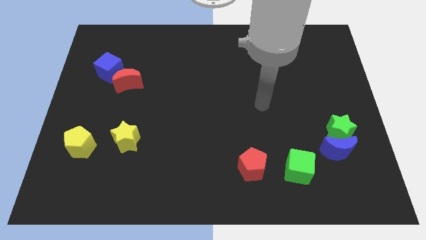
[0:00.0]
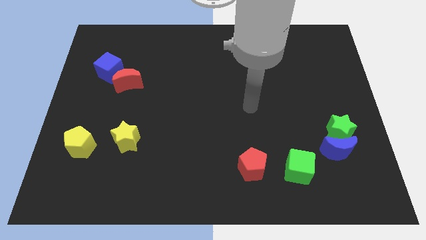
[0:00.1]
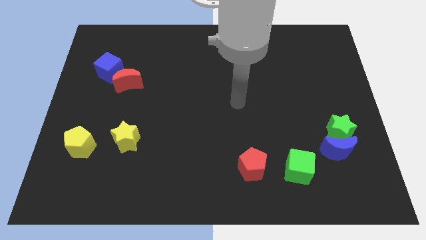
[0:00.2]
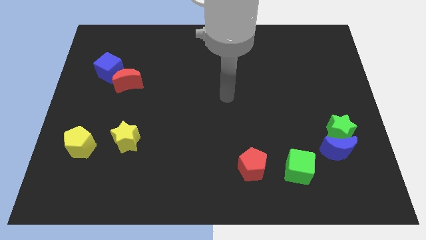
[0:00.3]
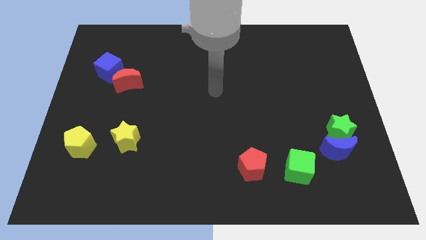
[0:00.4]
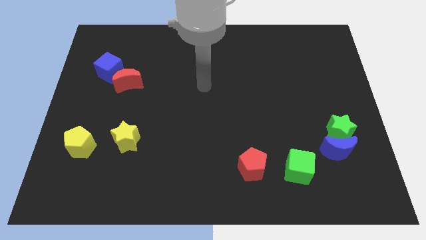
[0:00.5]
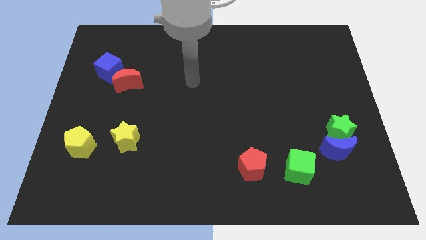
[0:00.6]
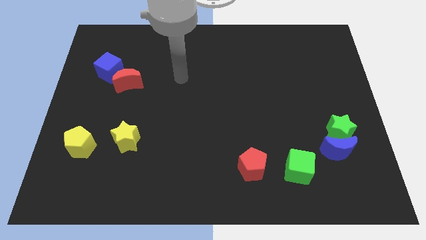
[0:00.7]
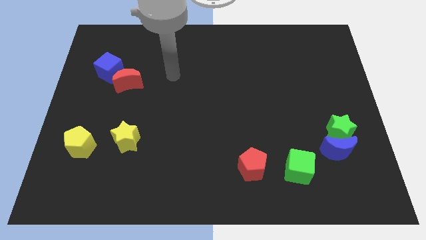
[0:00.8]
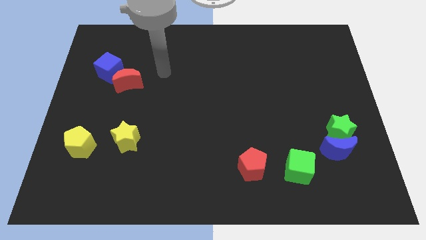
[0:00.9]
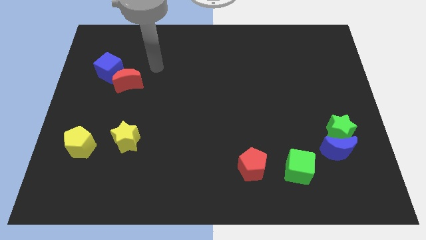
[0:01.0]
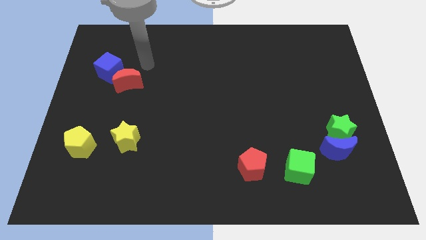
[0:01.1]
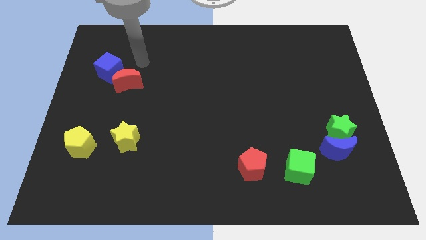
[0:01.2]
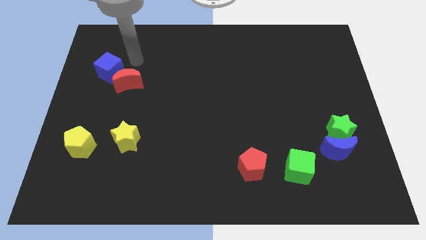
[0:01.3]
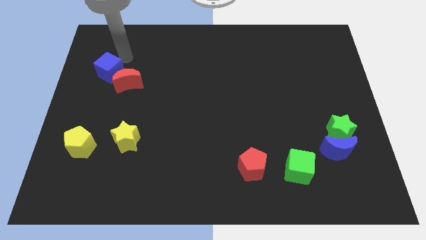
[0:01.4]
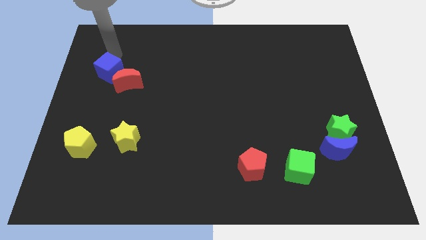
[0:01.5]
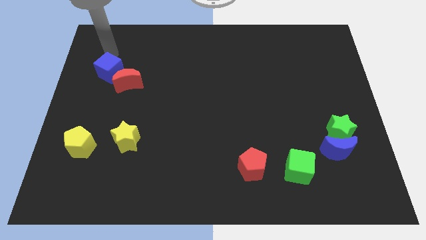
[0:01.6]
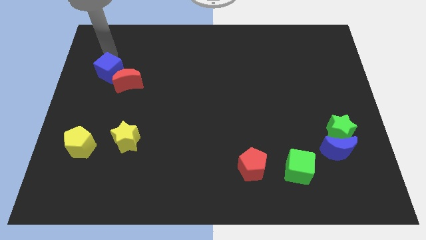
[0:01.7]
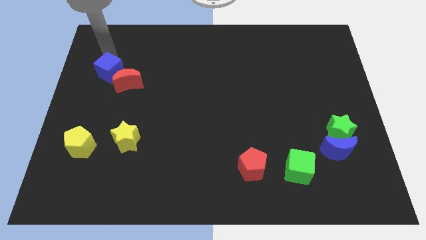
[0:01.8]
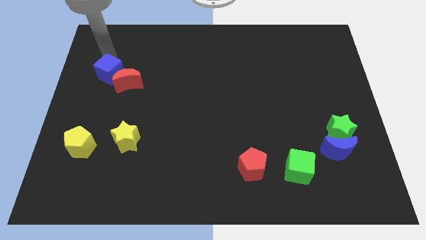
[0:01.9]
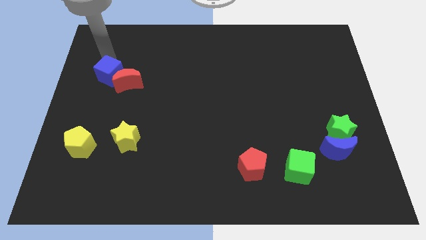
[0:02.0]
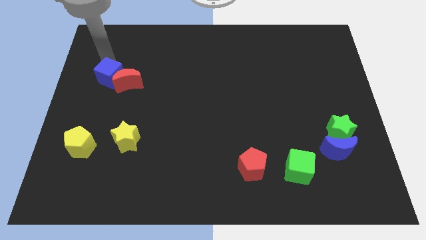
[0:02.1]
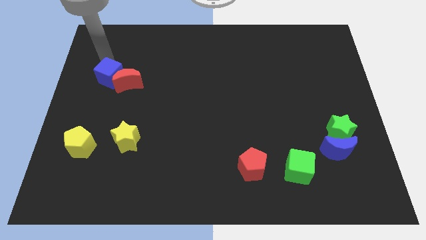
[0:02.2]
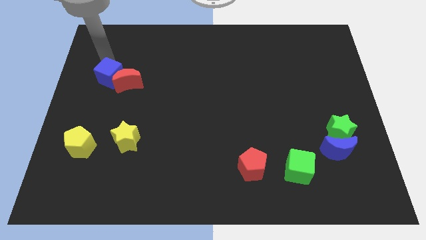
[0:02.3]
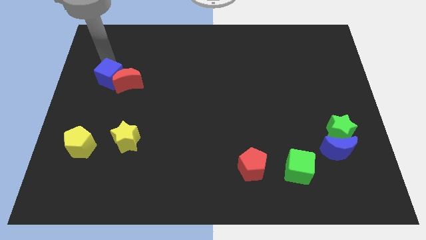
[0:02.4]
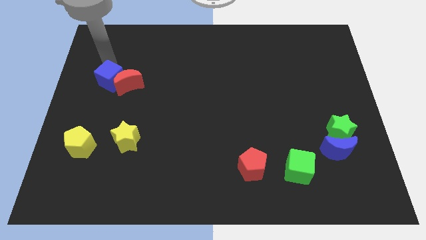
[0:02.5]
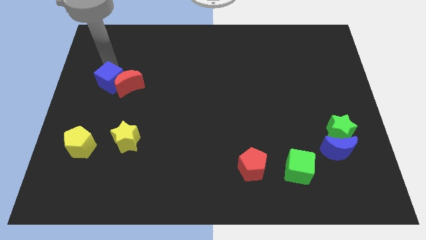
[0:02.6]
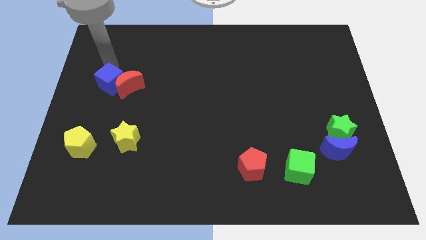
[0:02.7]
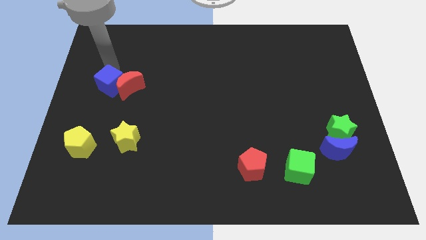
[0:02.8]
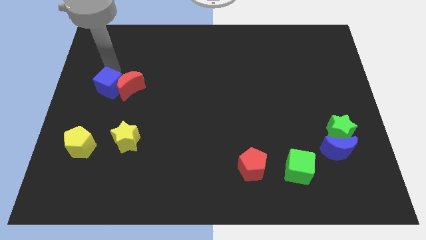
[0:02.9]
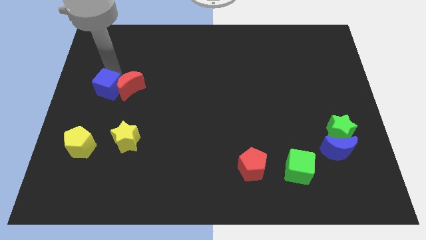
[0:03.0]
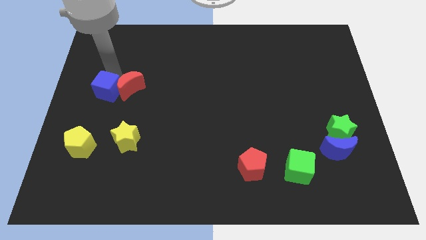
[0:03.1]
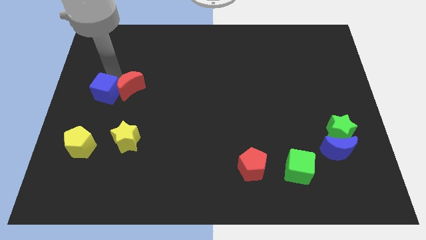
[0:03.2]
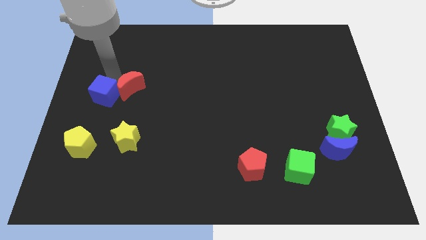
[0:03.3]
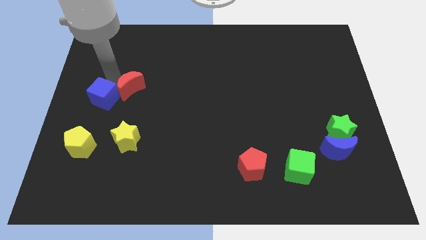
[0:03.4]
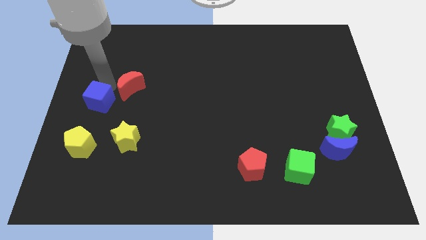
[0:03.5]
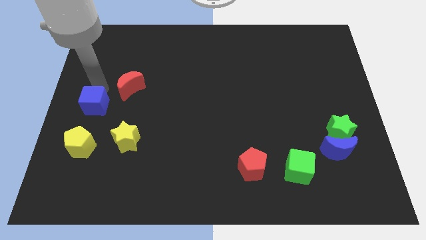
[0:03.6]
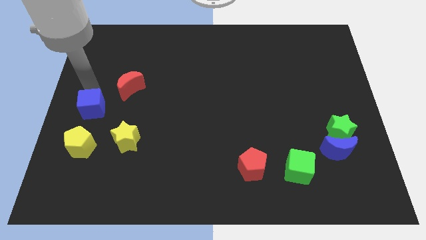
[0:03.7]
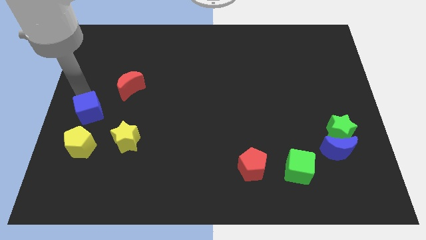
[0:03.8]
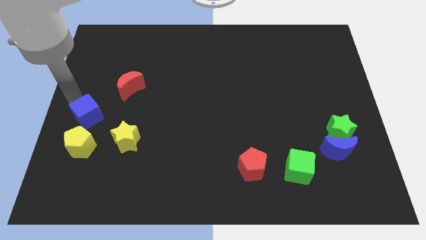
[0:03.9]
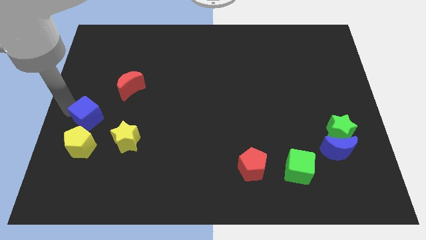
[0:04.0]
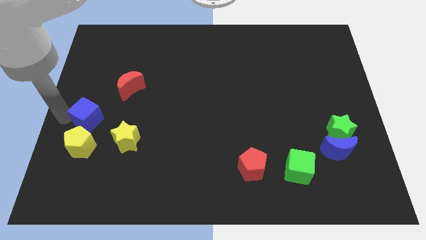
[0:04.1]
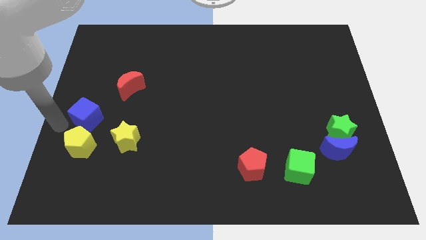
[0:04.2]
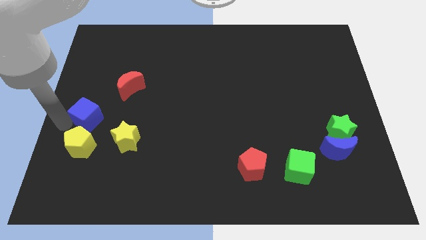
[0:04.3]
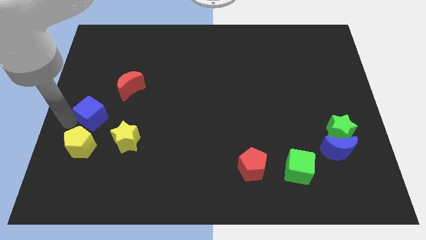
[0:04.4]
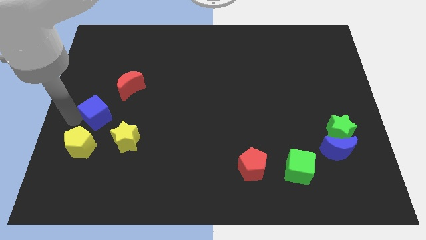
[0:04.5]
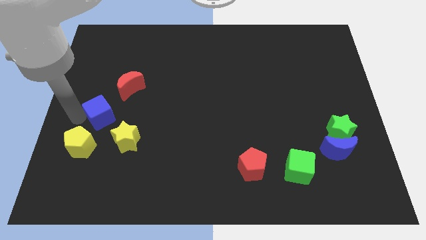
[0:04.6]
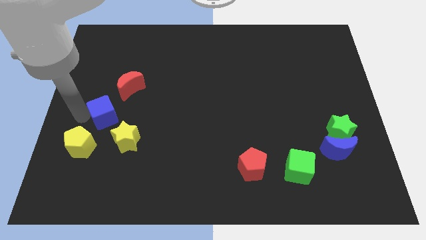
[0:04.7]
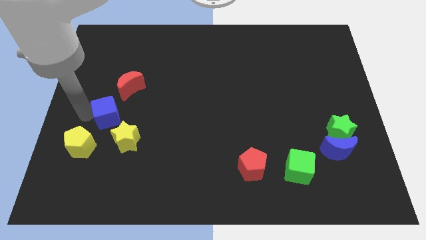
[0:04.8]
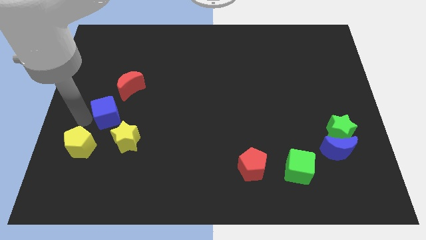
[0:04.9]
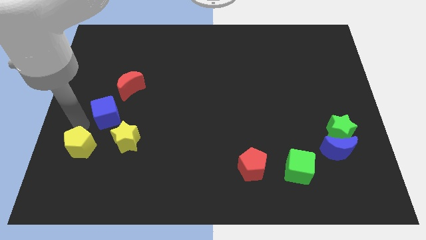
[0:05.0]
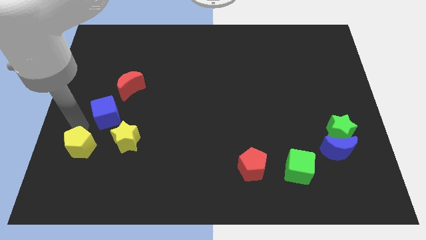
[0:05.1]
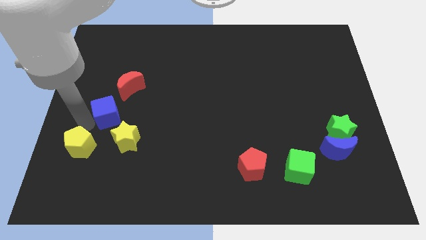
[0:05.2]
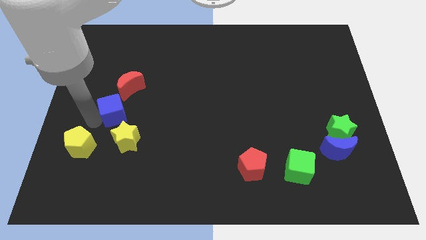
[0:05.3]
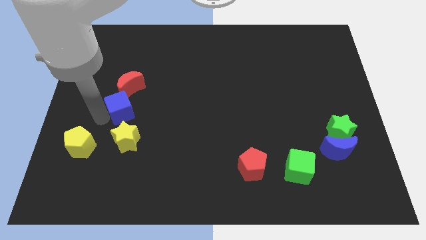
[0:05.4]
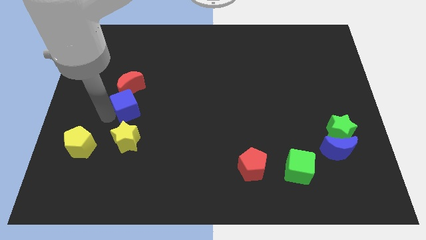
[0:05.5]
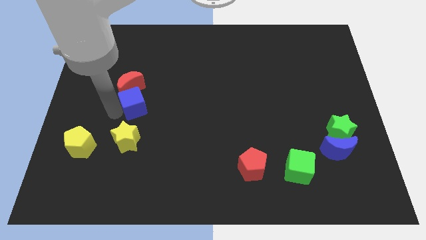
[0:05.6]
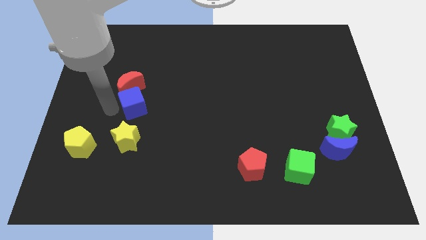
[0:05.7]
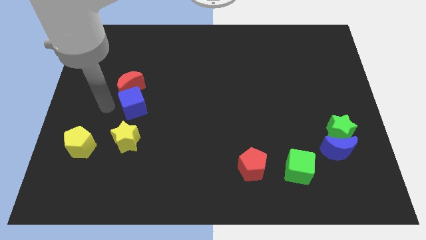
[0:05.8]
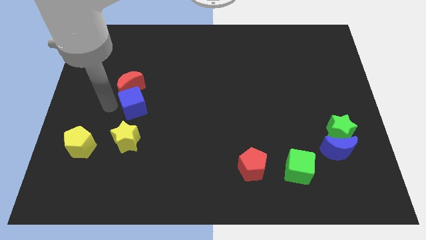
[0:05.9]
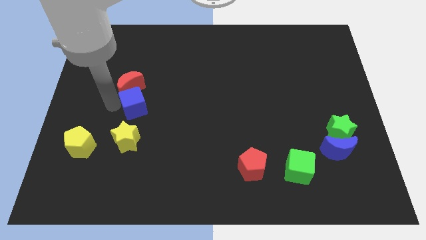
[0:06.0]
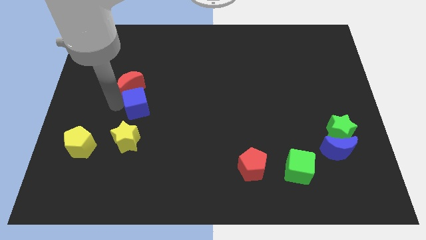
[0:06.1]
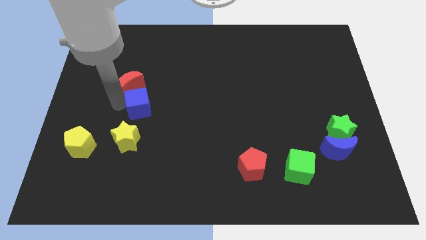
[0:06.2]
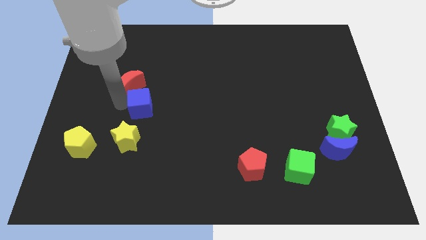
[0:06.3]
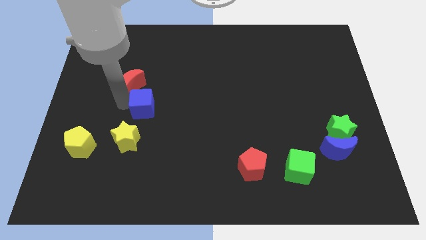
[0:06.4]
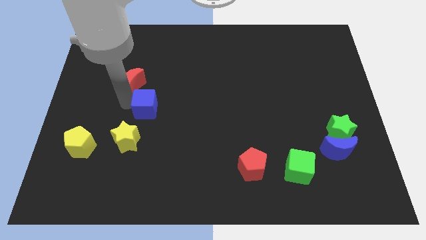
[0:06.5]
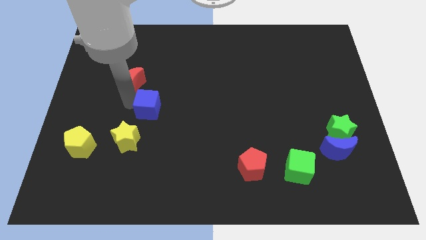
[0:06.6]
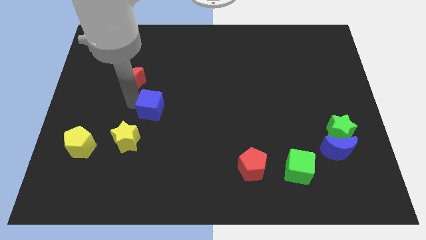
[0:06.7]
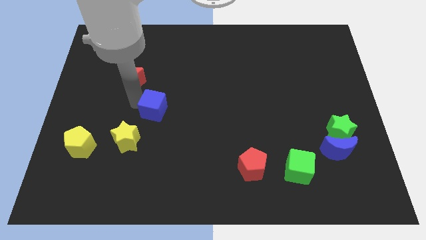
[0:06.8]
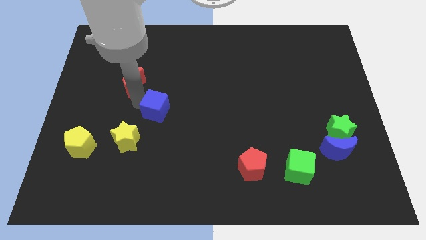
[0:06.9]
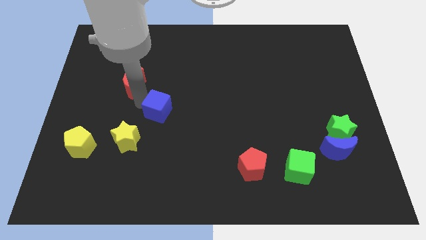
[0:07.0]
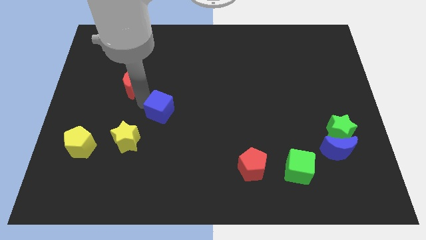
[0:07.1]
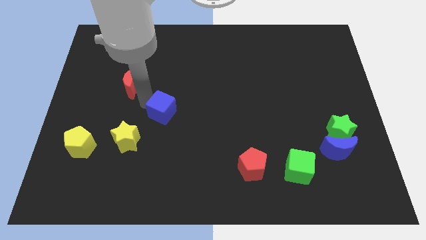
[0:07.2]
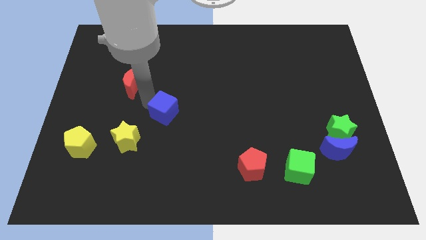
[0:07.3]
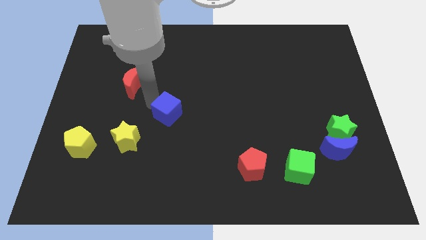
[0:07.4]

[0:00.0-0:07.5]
slide the blue cube downwards and right

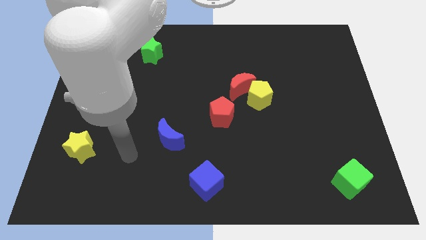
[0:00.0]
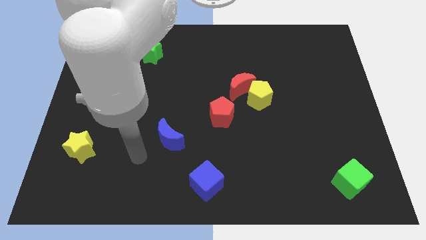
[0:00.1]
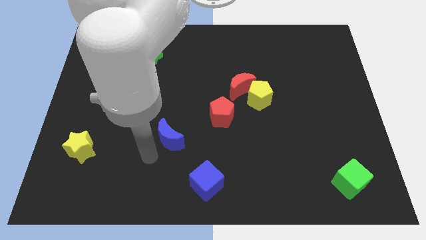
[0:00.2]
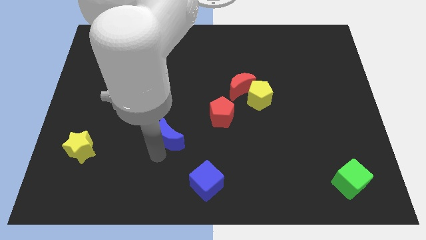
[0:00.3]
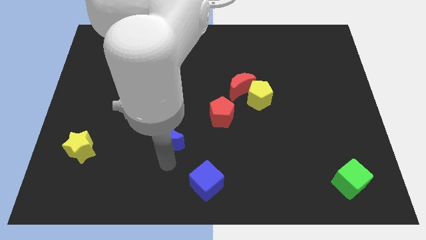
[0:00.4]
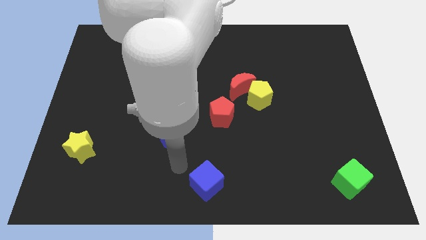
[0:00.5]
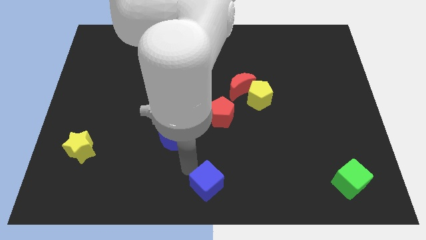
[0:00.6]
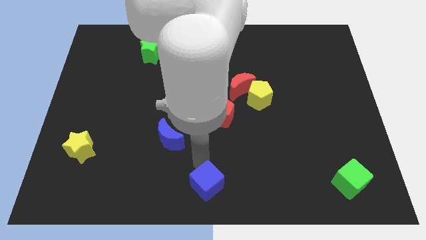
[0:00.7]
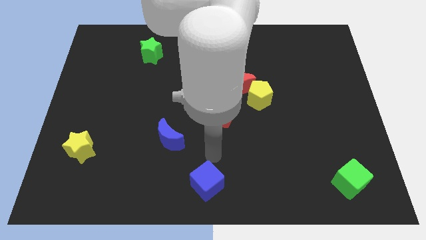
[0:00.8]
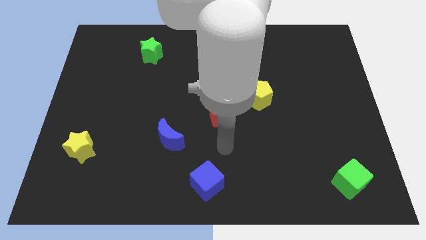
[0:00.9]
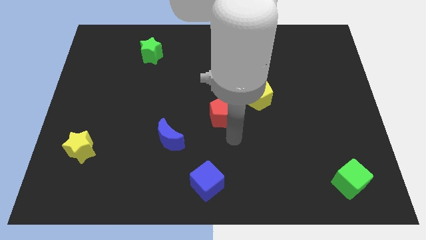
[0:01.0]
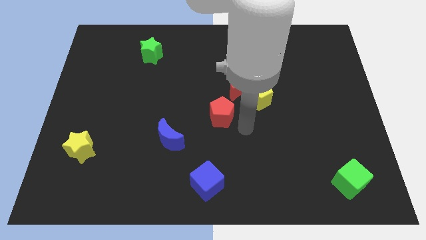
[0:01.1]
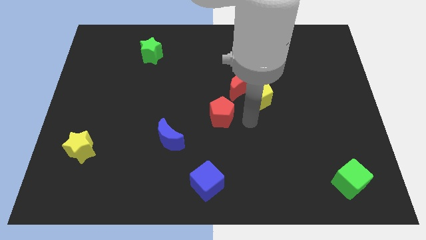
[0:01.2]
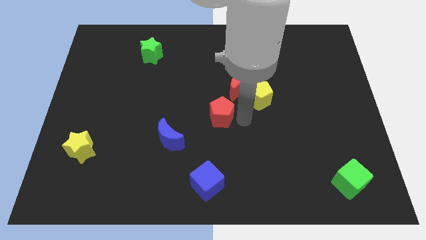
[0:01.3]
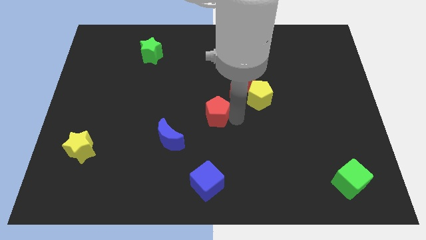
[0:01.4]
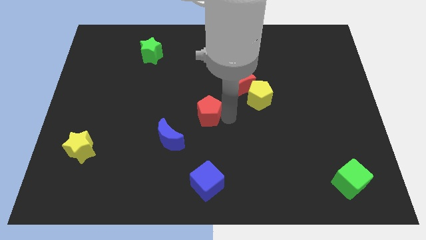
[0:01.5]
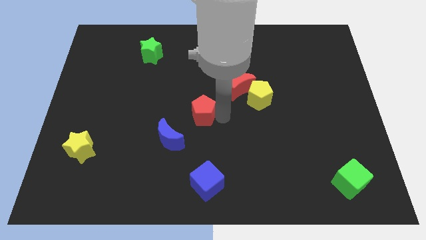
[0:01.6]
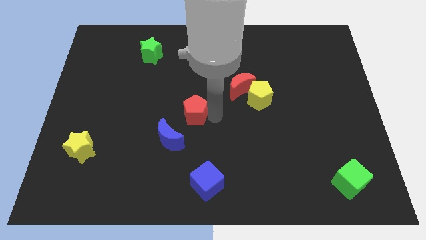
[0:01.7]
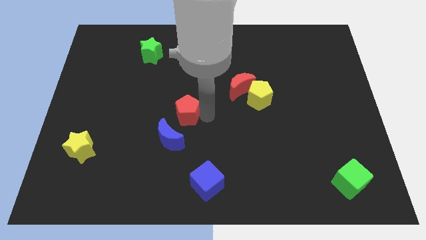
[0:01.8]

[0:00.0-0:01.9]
slide the red pentagon left slightly
